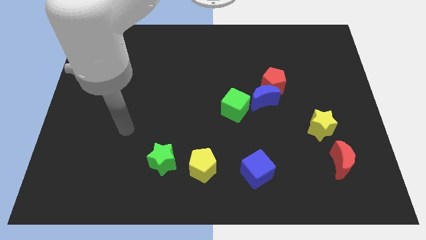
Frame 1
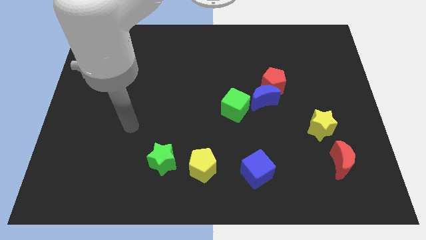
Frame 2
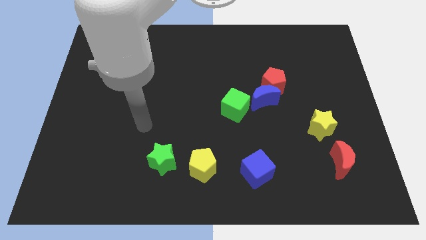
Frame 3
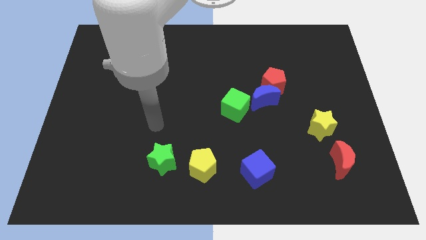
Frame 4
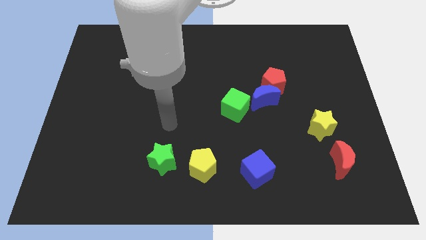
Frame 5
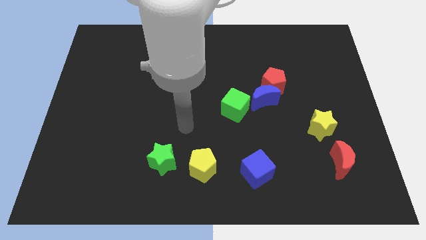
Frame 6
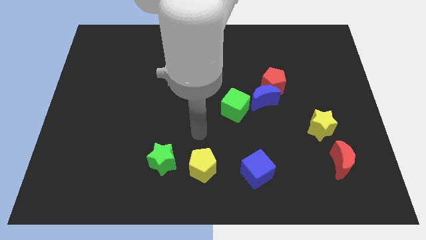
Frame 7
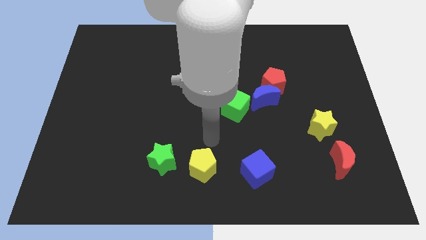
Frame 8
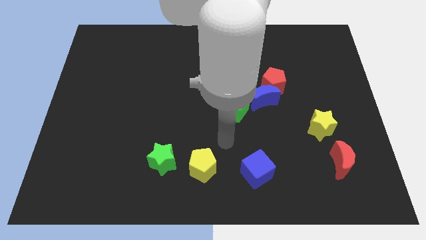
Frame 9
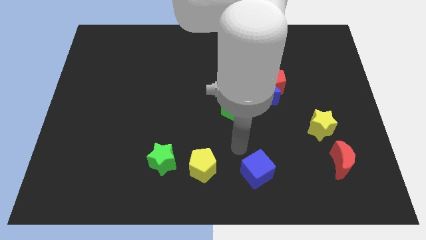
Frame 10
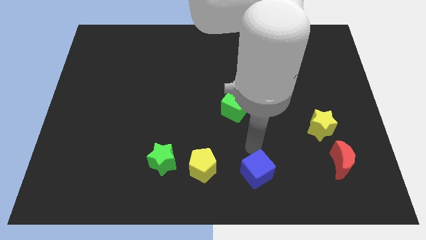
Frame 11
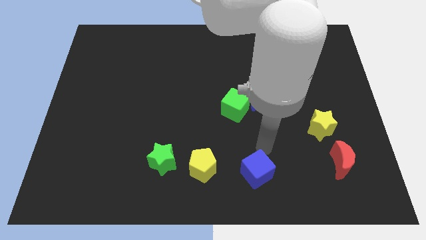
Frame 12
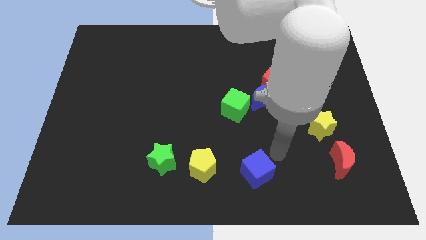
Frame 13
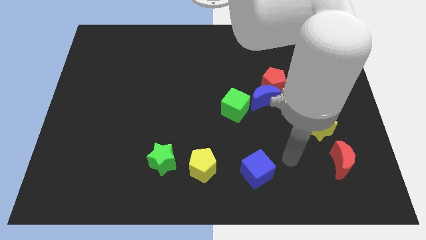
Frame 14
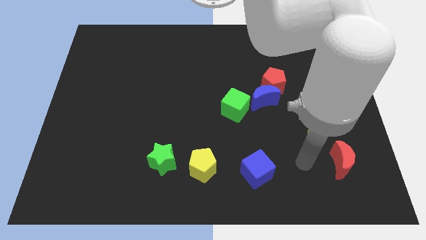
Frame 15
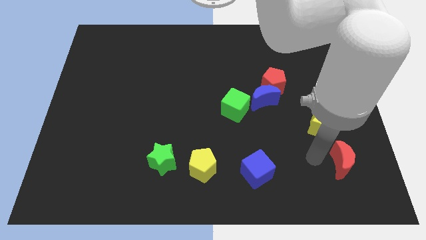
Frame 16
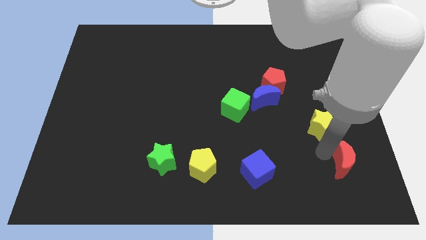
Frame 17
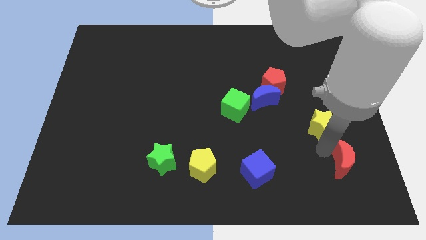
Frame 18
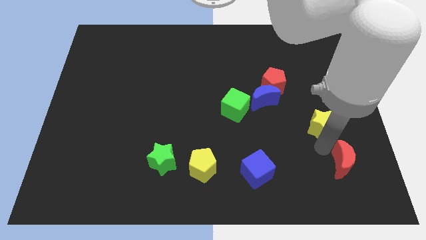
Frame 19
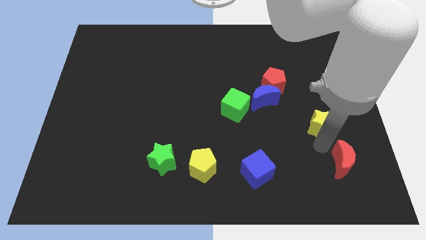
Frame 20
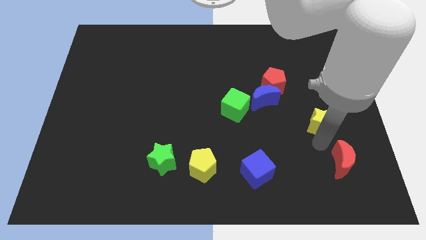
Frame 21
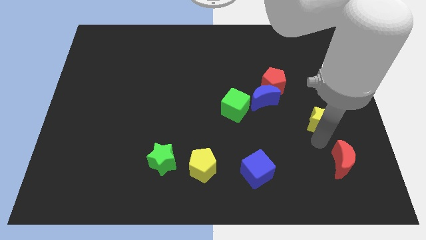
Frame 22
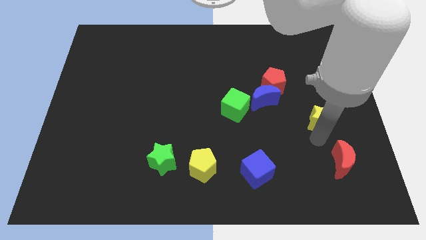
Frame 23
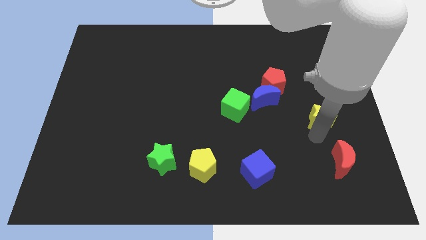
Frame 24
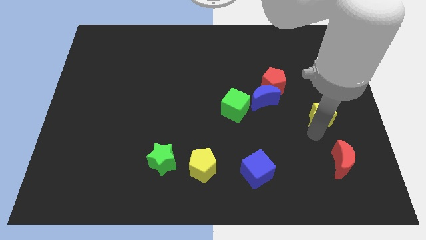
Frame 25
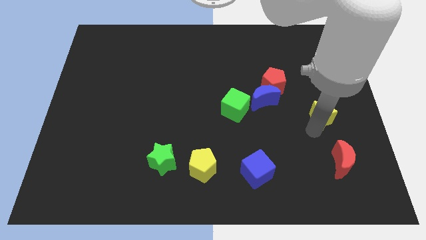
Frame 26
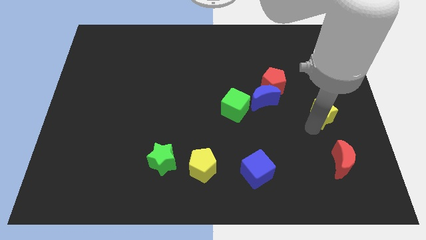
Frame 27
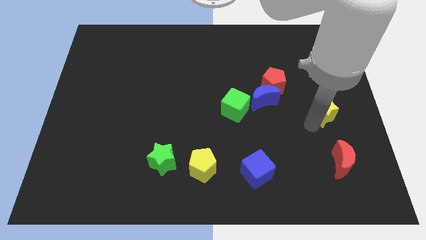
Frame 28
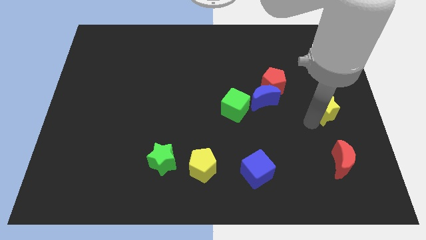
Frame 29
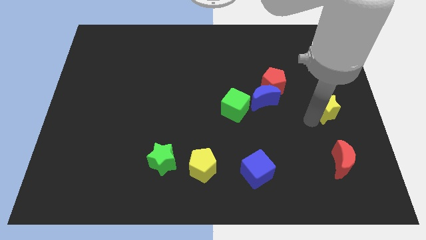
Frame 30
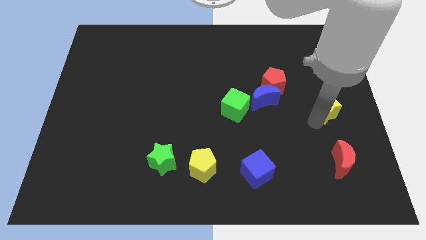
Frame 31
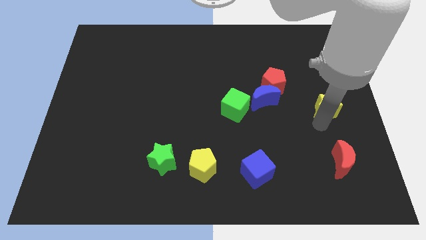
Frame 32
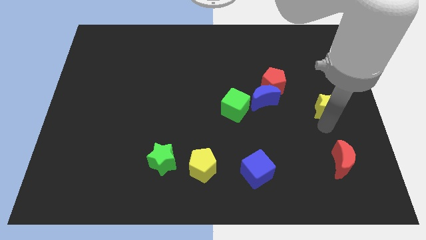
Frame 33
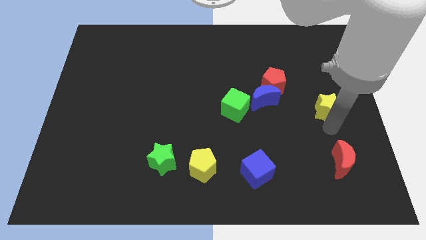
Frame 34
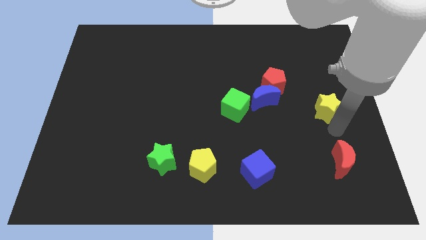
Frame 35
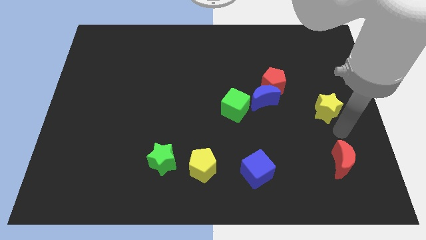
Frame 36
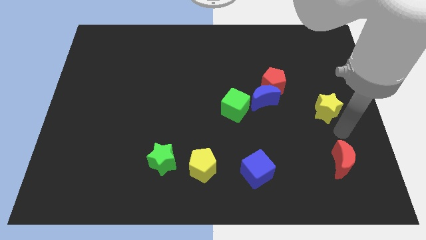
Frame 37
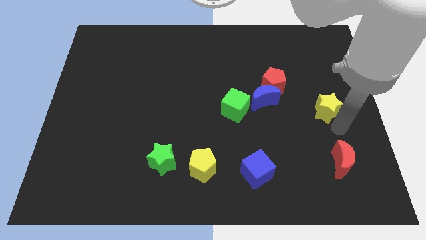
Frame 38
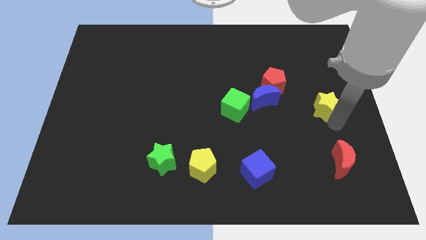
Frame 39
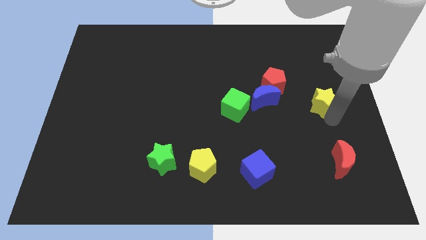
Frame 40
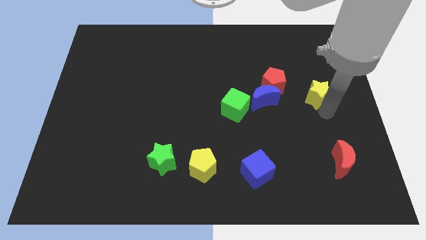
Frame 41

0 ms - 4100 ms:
slightly slide the yellow star up

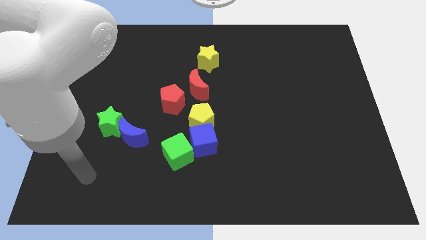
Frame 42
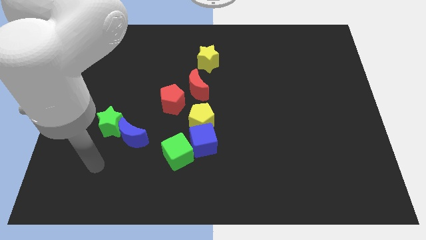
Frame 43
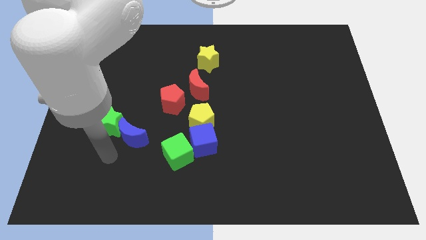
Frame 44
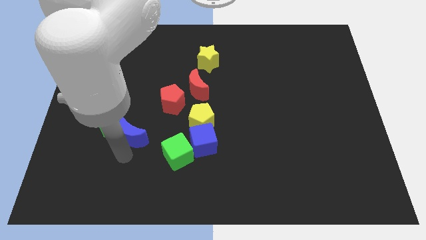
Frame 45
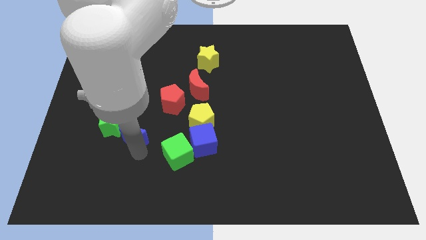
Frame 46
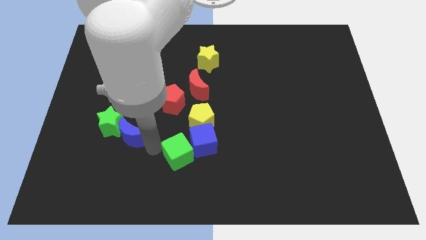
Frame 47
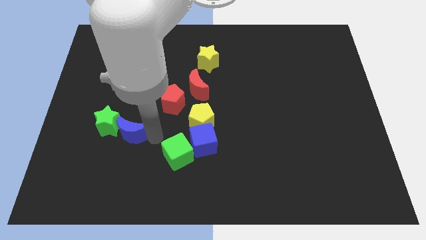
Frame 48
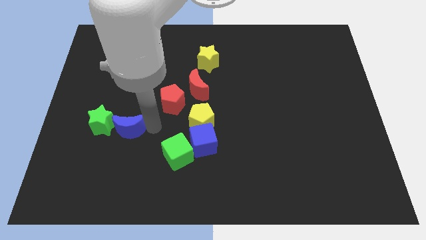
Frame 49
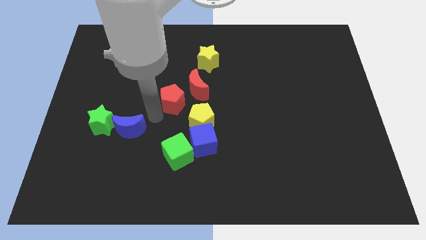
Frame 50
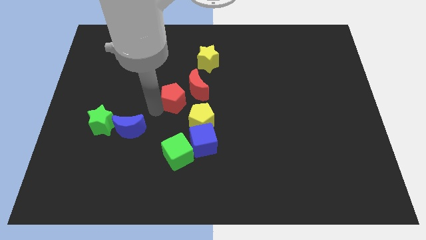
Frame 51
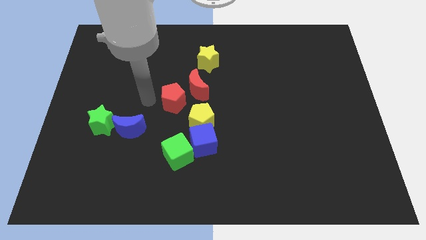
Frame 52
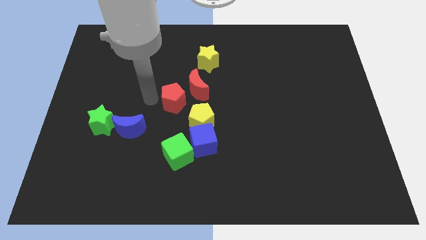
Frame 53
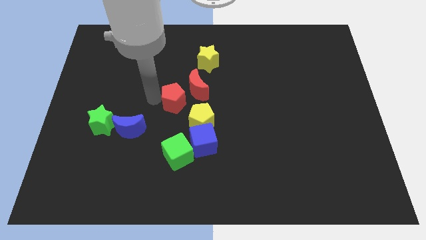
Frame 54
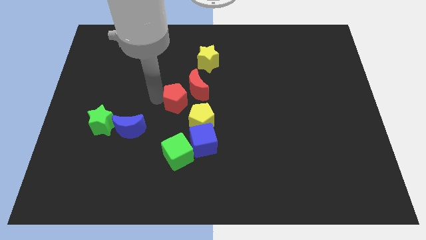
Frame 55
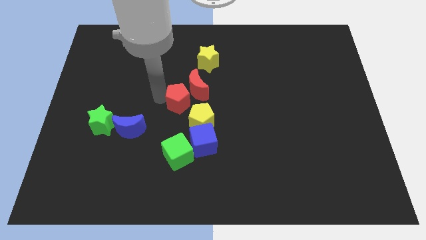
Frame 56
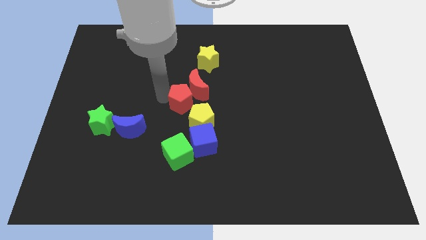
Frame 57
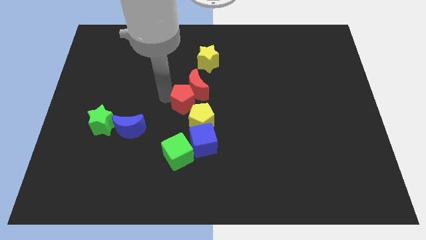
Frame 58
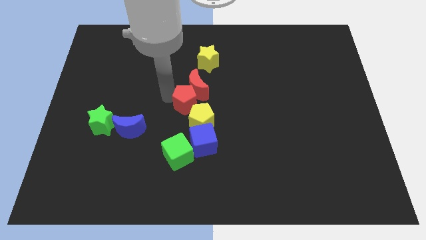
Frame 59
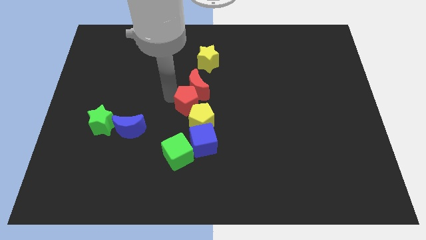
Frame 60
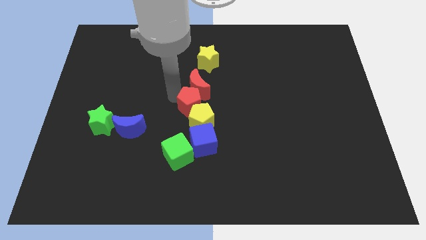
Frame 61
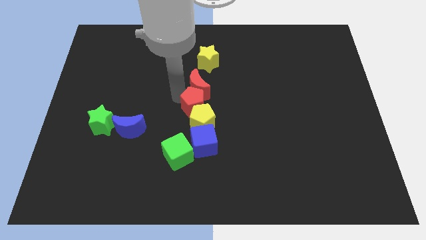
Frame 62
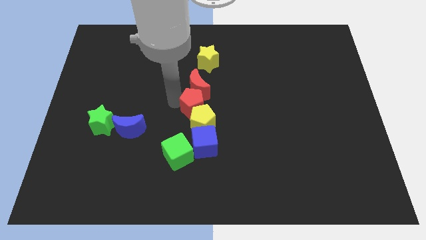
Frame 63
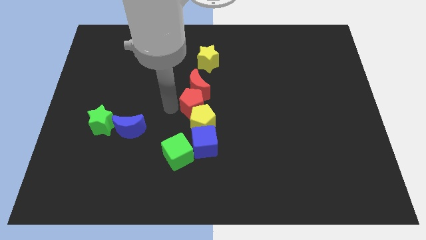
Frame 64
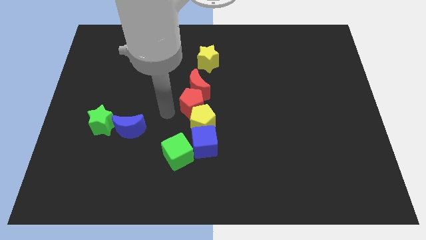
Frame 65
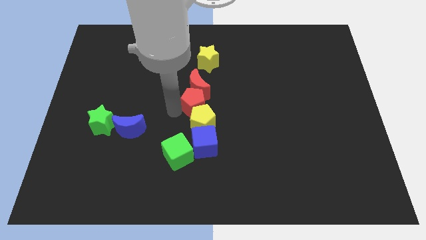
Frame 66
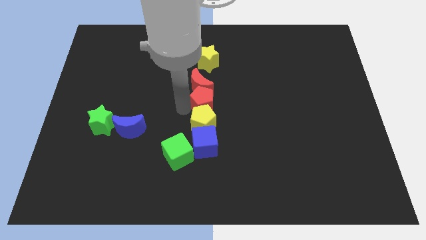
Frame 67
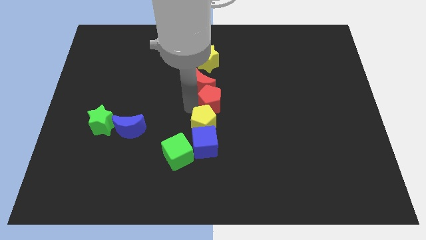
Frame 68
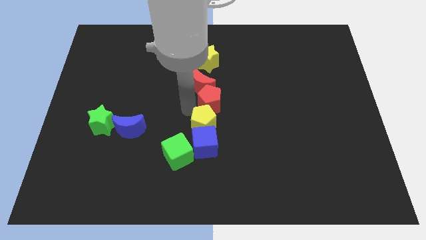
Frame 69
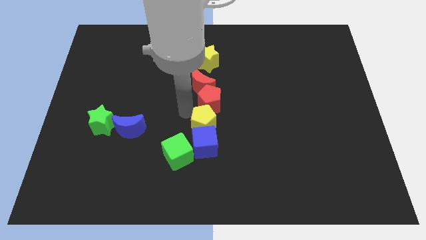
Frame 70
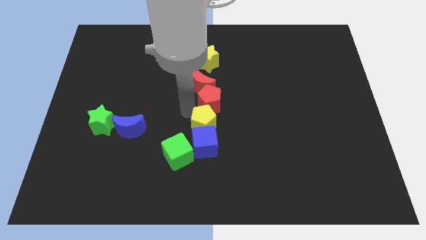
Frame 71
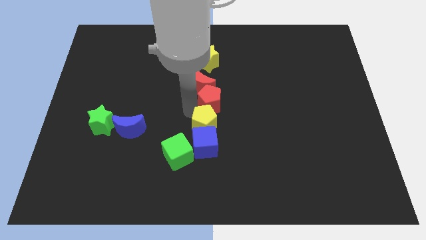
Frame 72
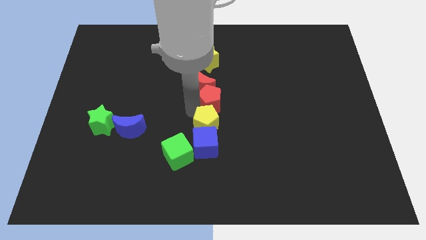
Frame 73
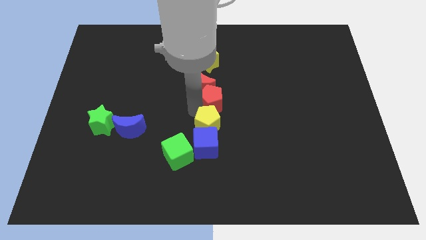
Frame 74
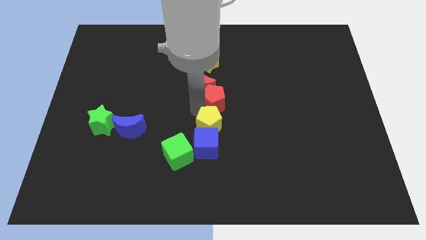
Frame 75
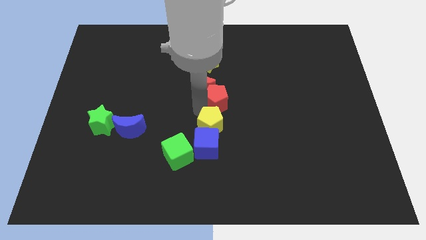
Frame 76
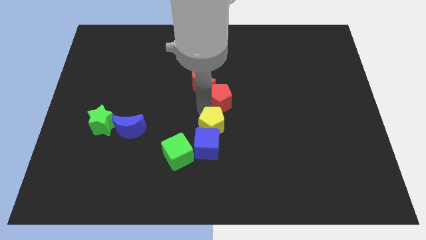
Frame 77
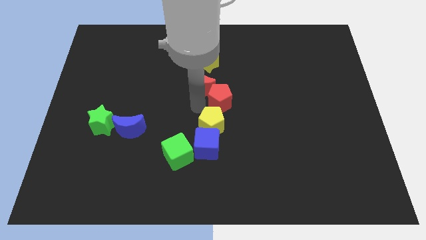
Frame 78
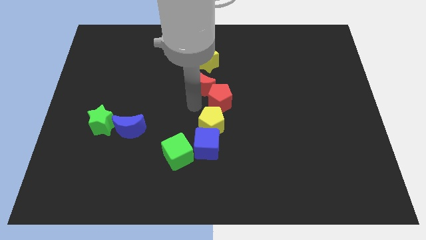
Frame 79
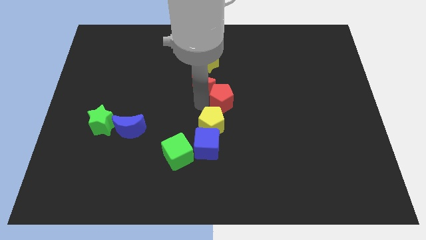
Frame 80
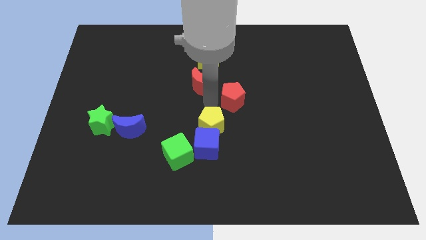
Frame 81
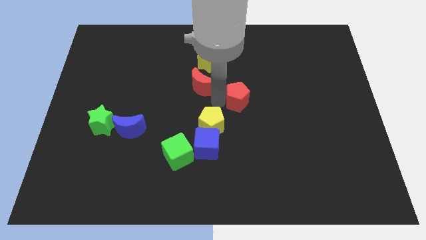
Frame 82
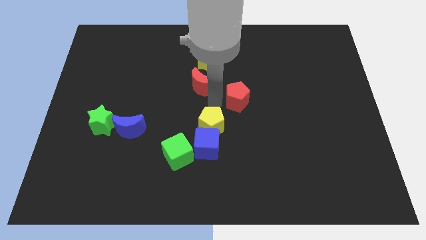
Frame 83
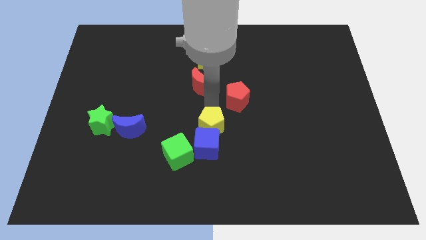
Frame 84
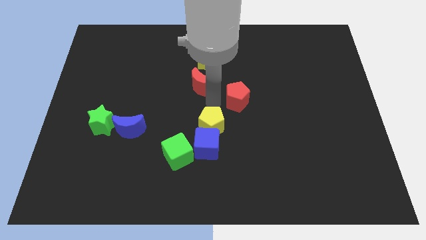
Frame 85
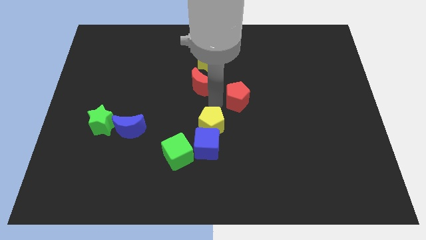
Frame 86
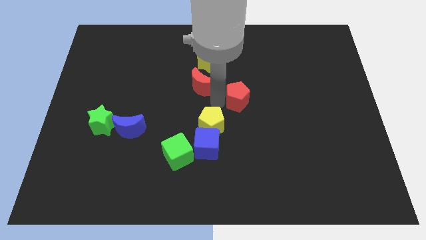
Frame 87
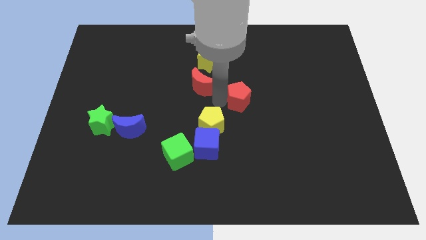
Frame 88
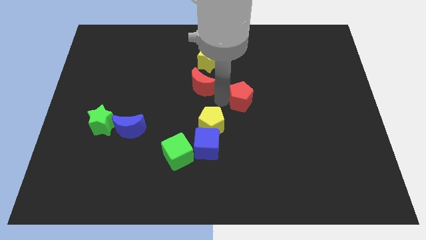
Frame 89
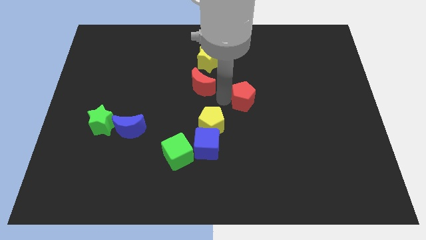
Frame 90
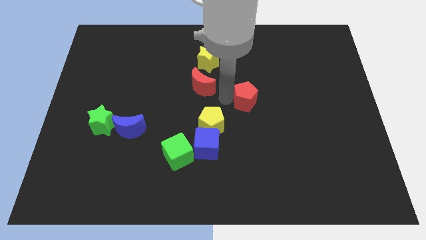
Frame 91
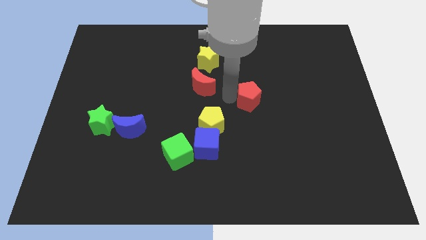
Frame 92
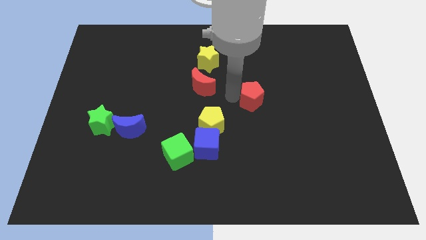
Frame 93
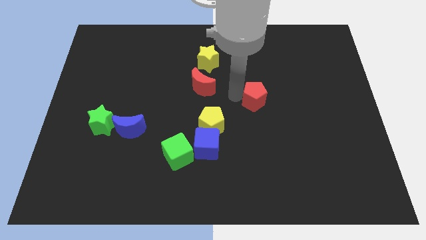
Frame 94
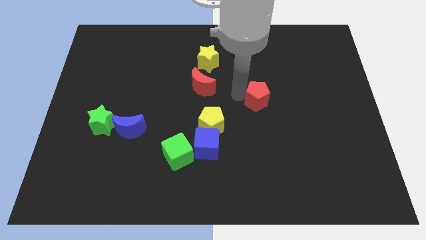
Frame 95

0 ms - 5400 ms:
move the red pentagon right
